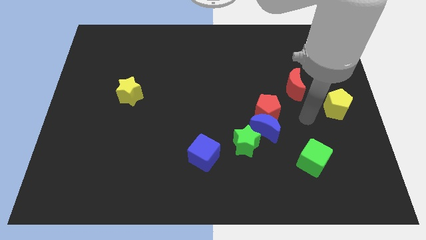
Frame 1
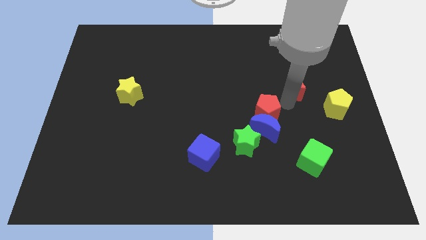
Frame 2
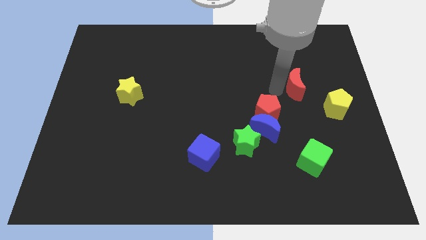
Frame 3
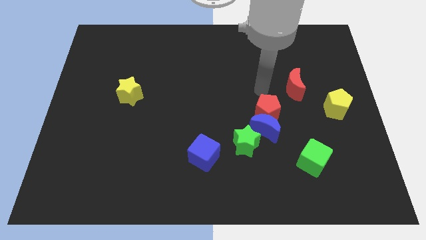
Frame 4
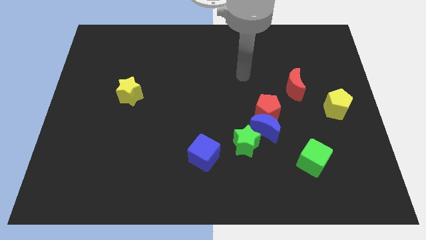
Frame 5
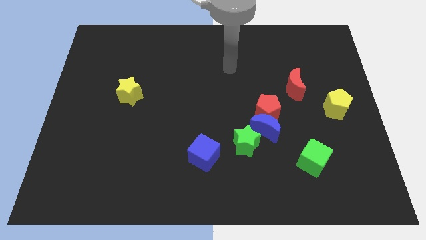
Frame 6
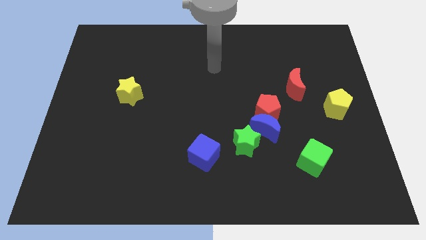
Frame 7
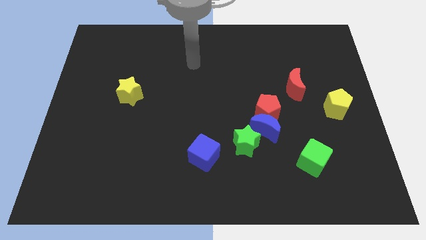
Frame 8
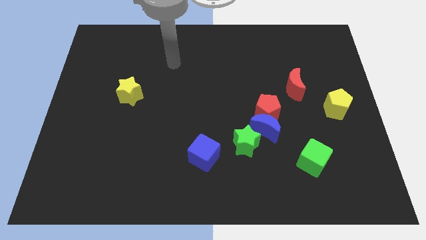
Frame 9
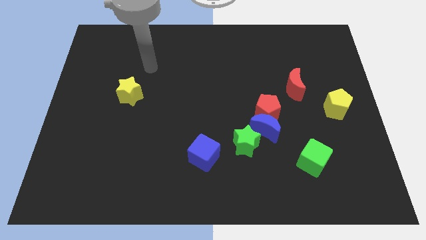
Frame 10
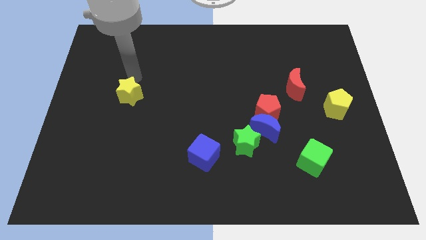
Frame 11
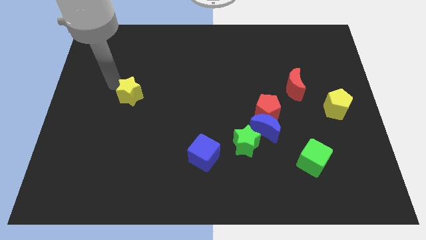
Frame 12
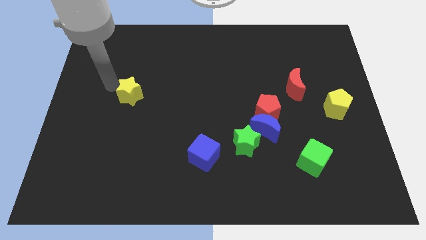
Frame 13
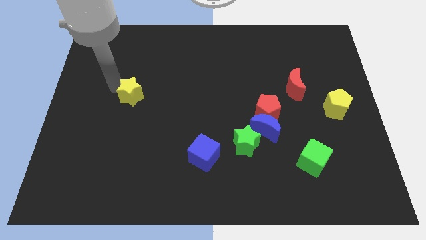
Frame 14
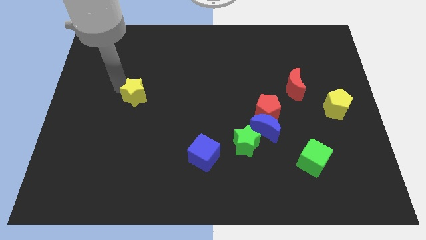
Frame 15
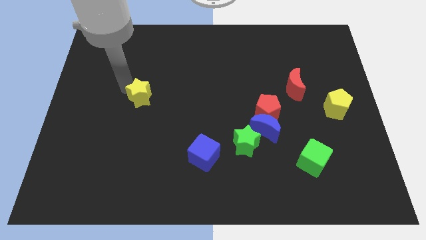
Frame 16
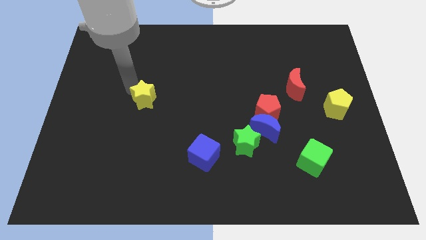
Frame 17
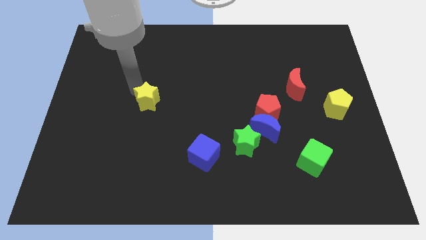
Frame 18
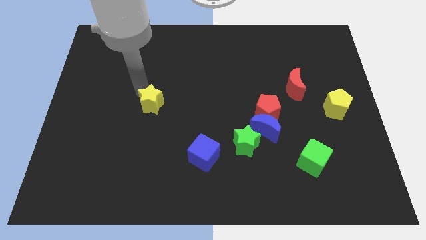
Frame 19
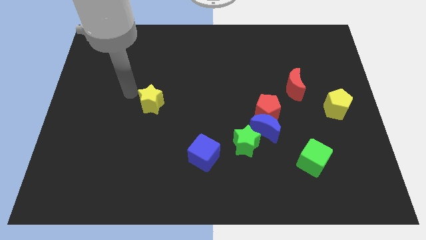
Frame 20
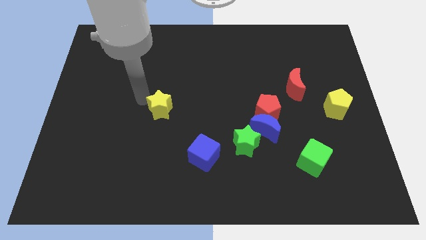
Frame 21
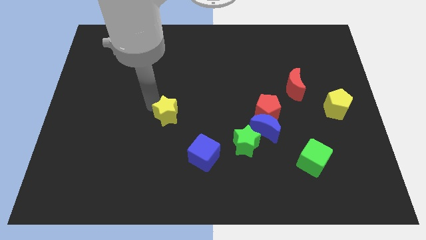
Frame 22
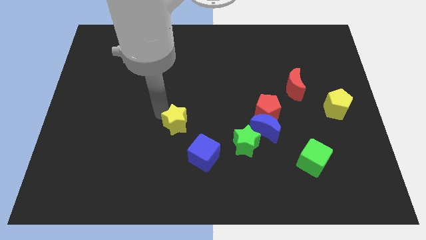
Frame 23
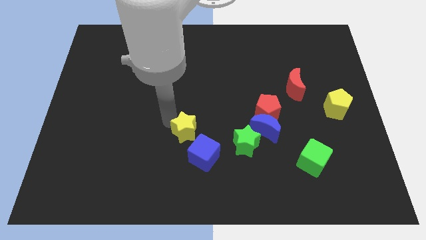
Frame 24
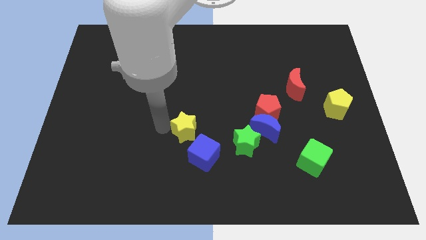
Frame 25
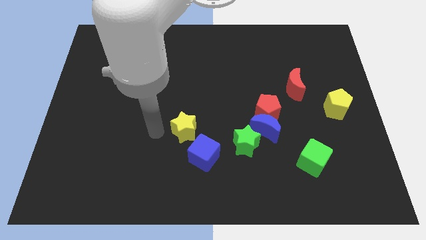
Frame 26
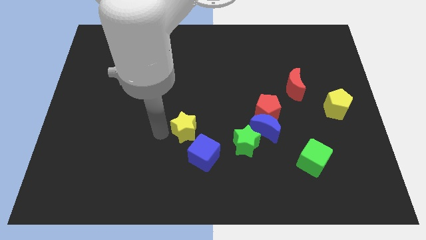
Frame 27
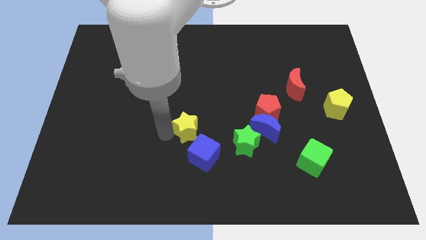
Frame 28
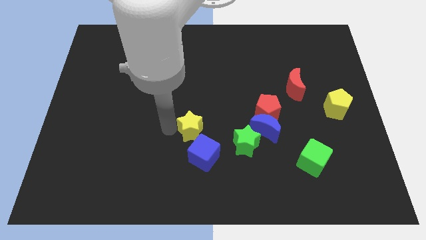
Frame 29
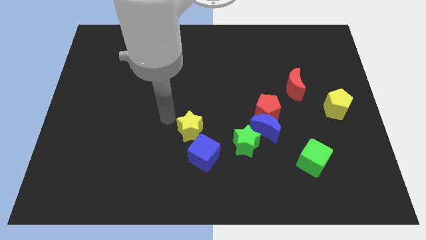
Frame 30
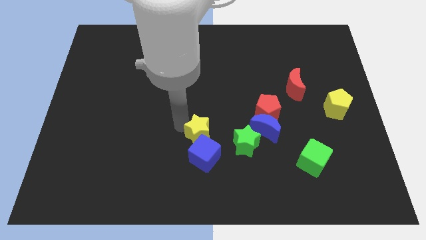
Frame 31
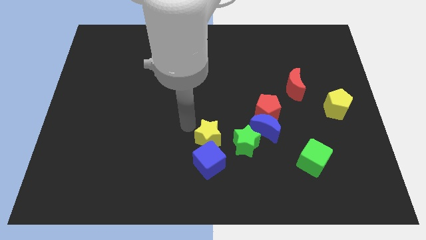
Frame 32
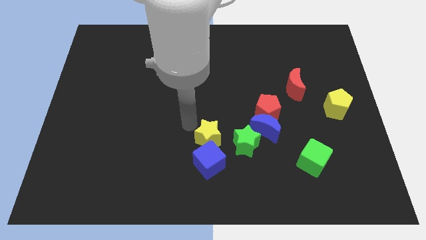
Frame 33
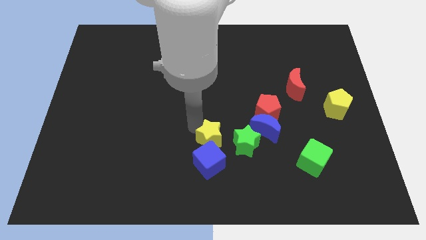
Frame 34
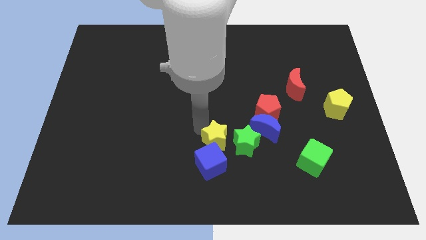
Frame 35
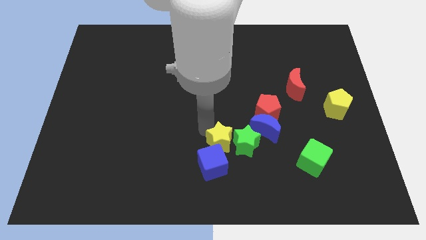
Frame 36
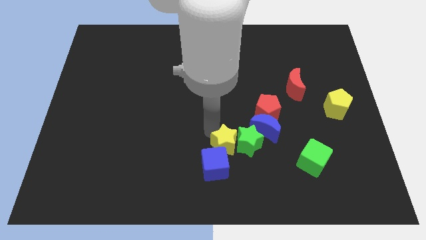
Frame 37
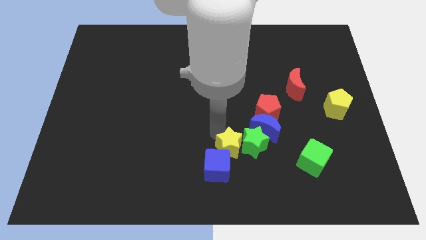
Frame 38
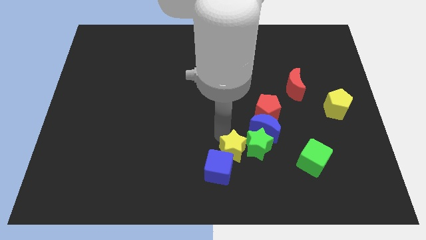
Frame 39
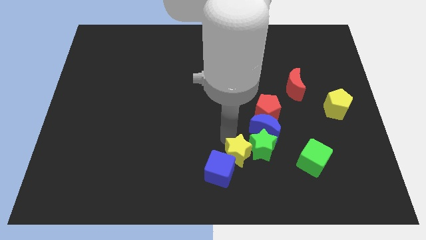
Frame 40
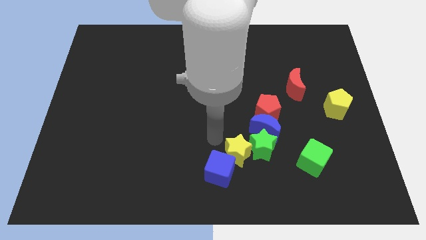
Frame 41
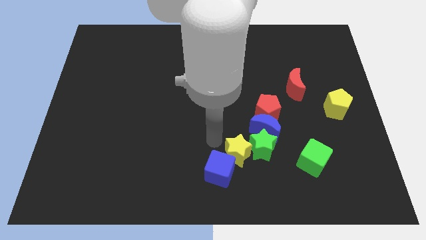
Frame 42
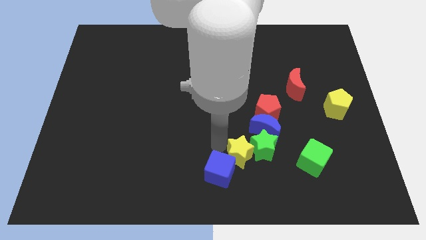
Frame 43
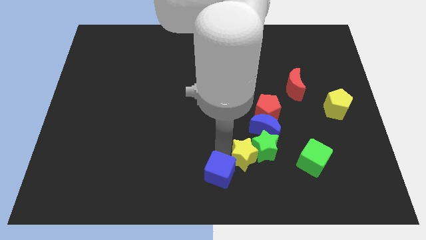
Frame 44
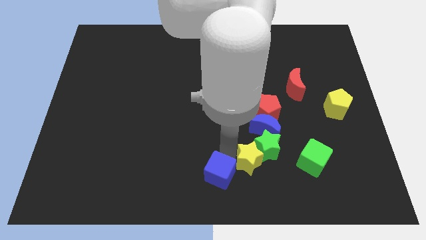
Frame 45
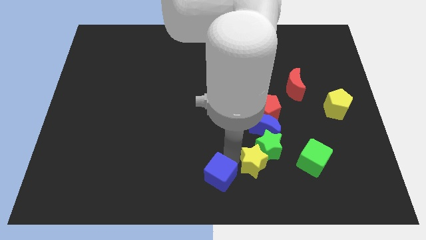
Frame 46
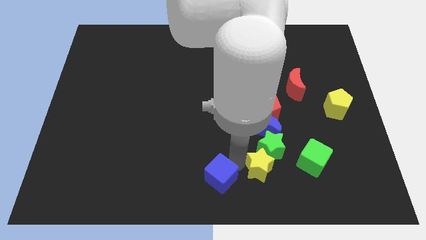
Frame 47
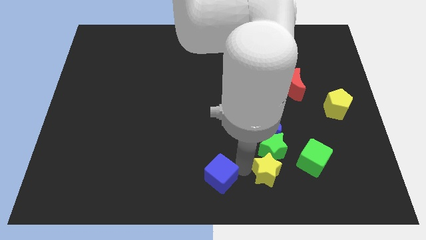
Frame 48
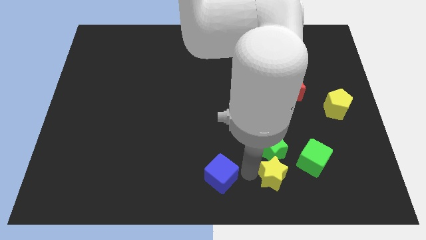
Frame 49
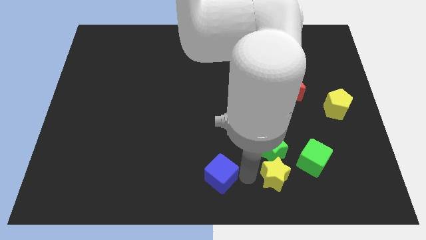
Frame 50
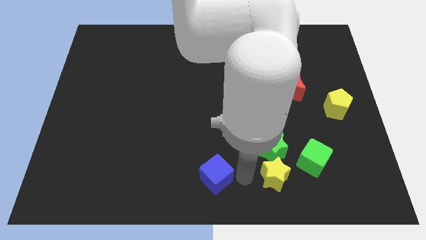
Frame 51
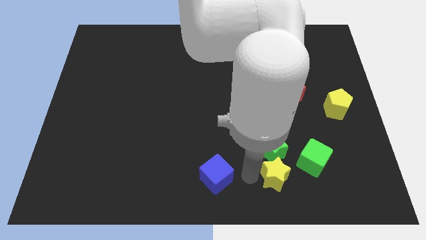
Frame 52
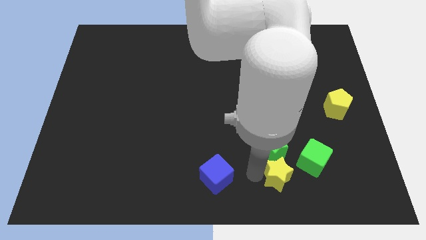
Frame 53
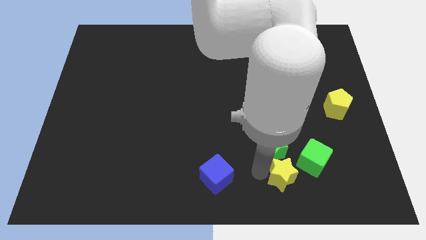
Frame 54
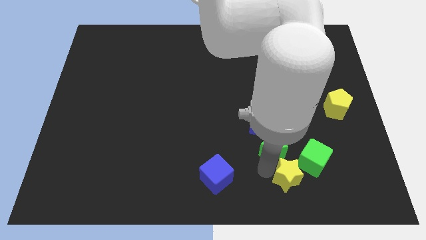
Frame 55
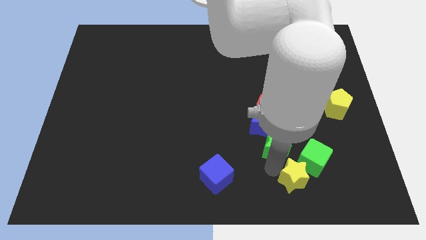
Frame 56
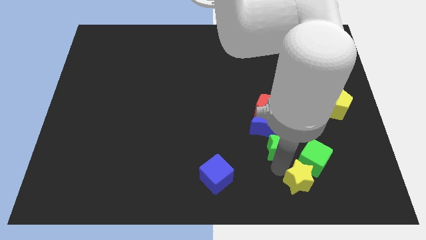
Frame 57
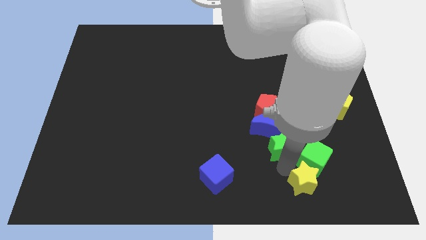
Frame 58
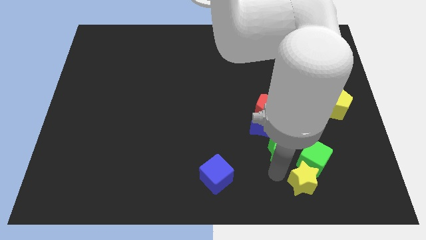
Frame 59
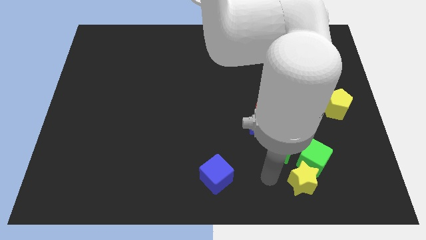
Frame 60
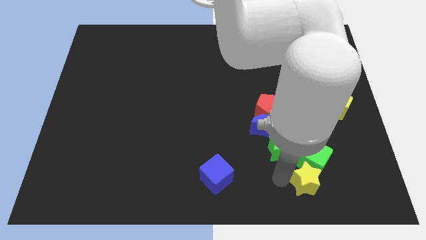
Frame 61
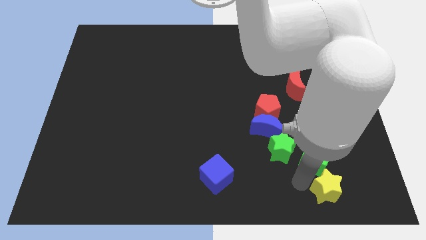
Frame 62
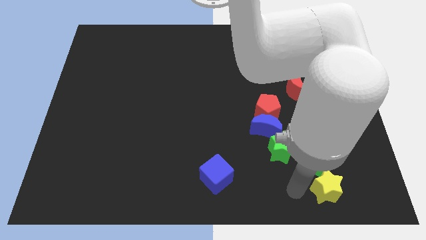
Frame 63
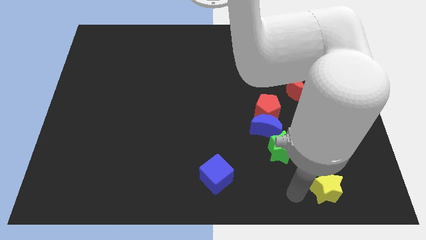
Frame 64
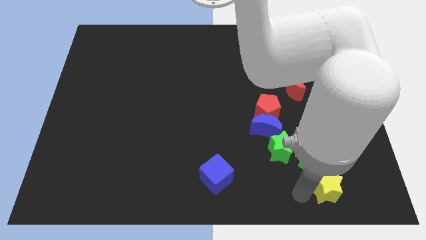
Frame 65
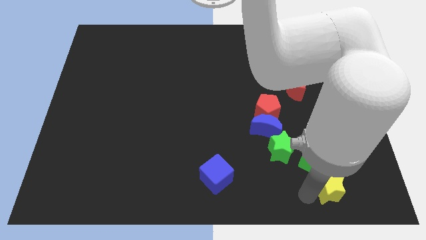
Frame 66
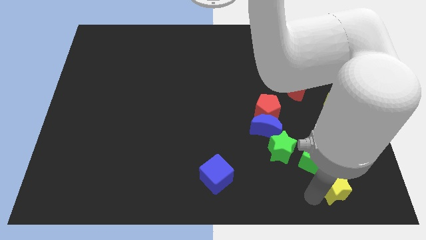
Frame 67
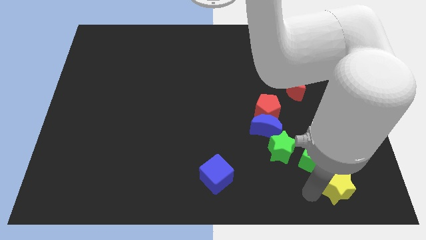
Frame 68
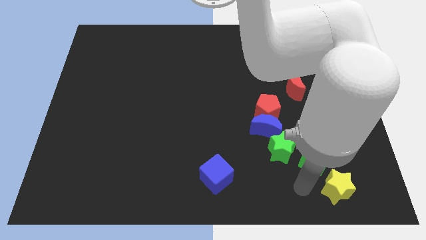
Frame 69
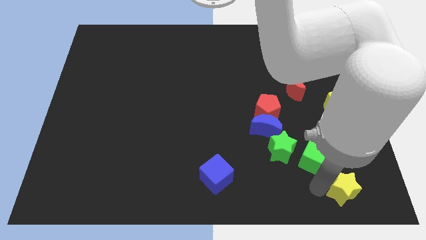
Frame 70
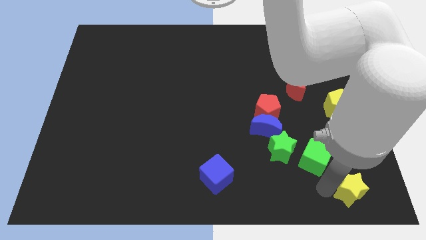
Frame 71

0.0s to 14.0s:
push the yellow star to the bottom right of the board

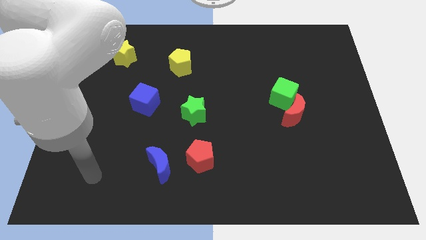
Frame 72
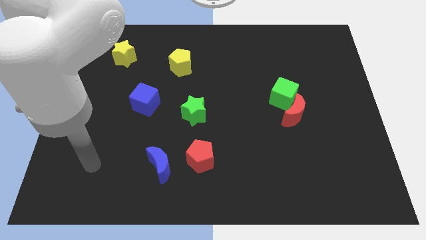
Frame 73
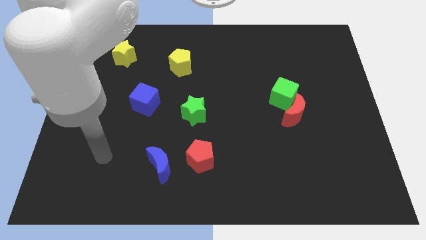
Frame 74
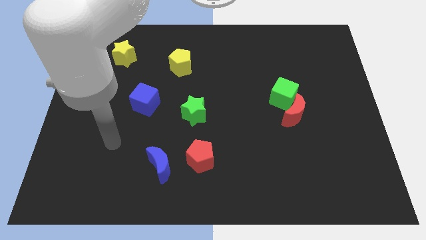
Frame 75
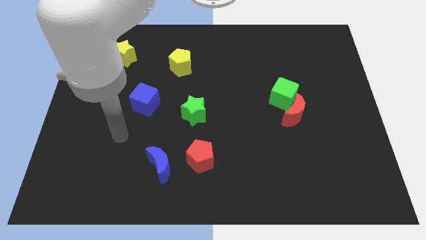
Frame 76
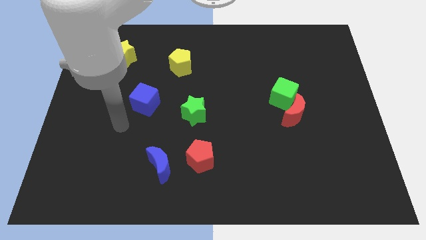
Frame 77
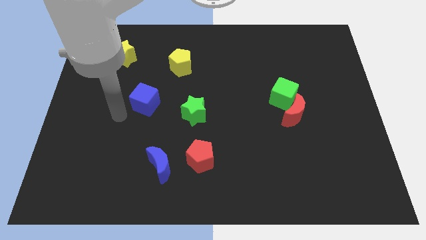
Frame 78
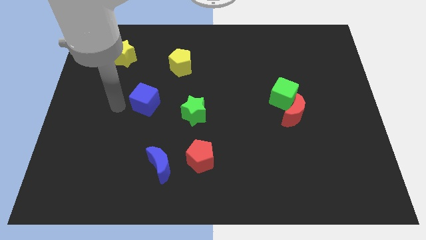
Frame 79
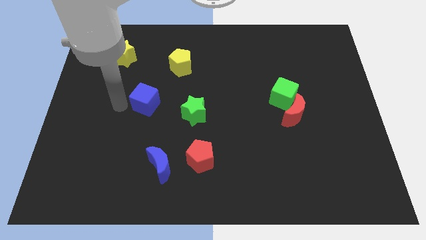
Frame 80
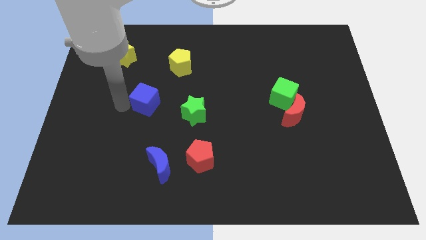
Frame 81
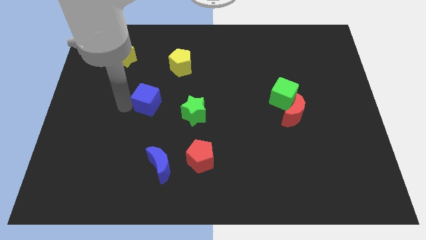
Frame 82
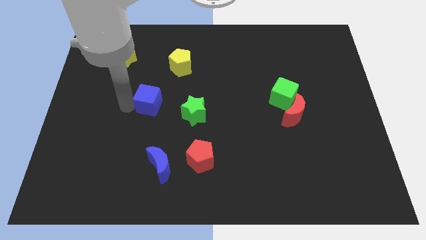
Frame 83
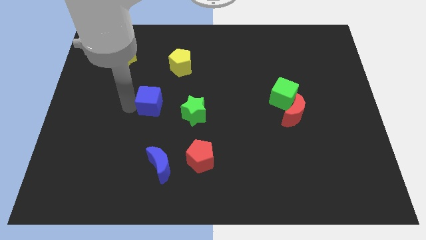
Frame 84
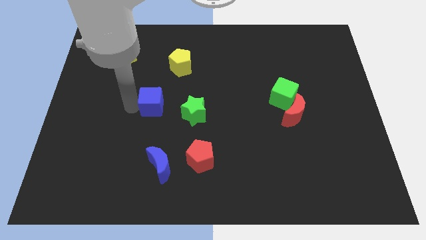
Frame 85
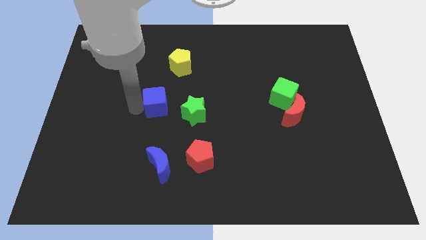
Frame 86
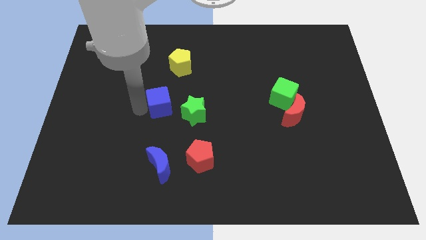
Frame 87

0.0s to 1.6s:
slide the blue cube to the center
